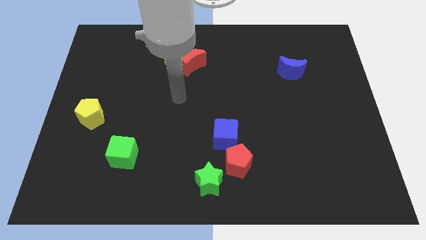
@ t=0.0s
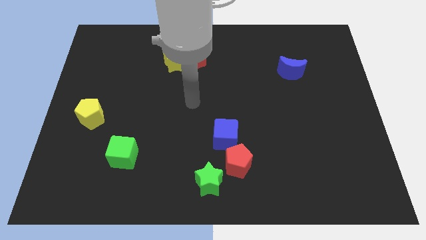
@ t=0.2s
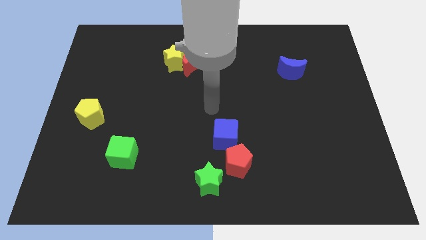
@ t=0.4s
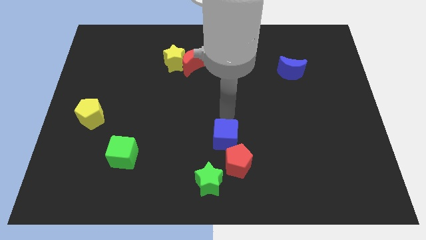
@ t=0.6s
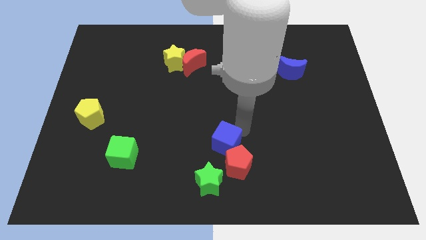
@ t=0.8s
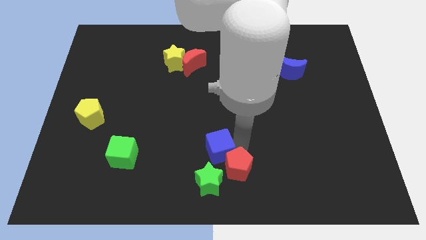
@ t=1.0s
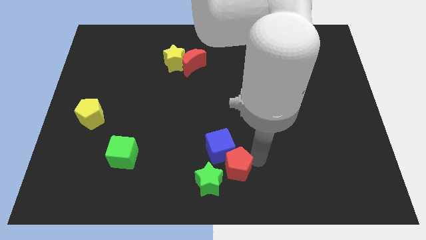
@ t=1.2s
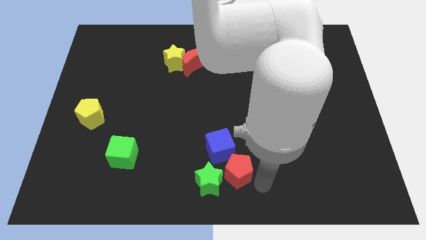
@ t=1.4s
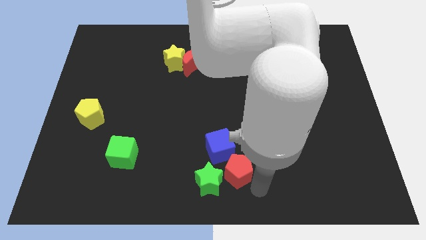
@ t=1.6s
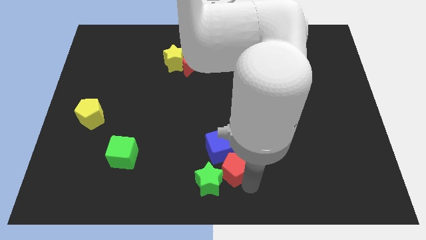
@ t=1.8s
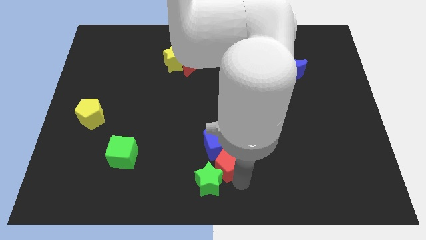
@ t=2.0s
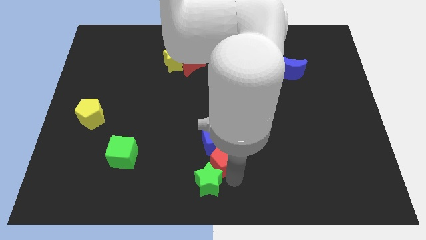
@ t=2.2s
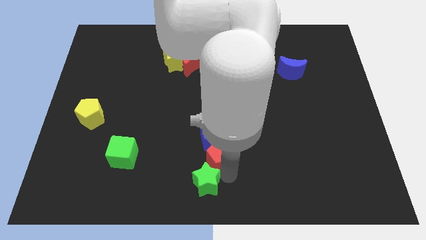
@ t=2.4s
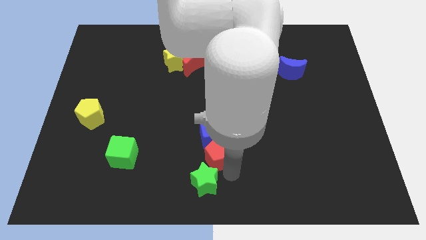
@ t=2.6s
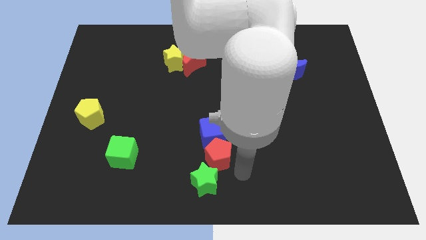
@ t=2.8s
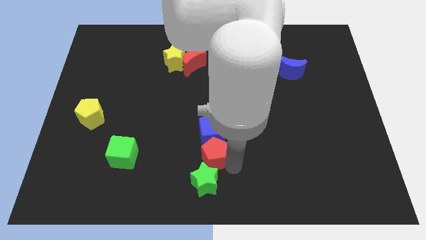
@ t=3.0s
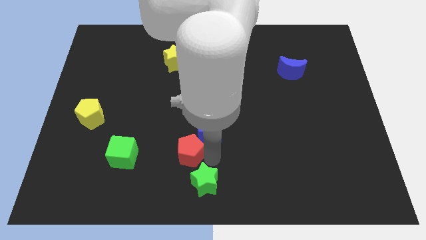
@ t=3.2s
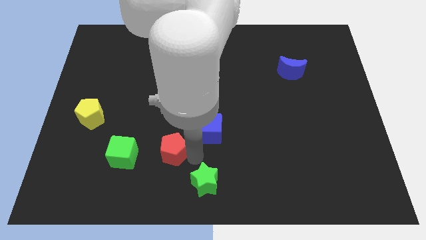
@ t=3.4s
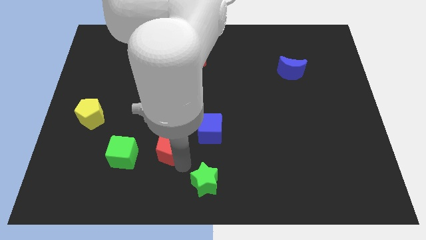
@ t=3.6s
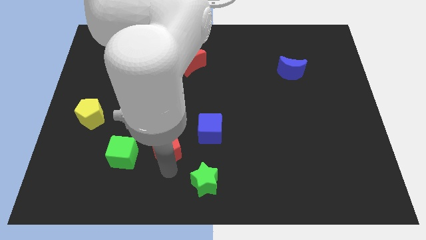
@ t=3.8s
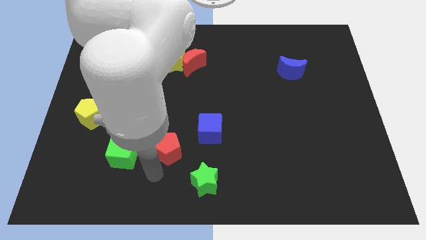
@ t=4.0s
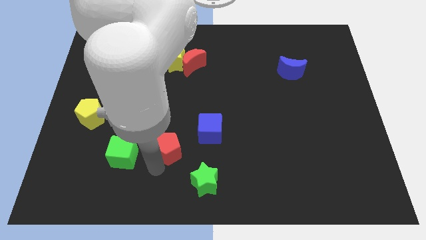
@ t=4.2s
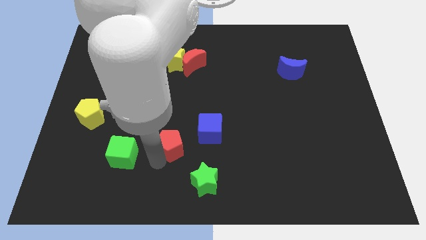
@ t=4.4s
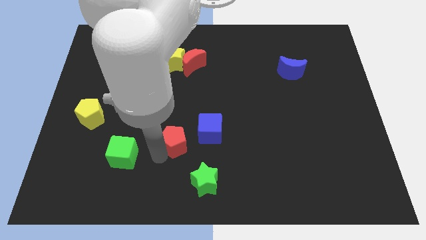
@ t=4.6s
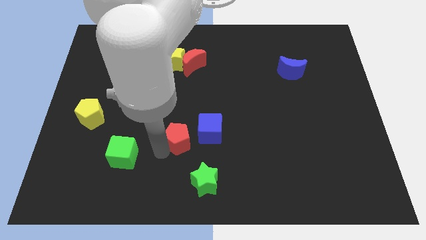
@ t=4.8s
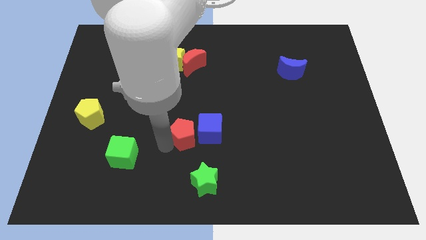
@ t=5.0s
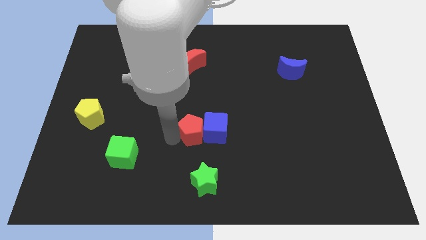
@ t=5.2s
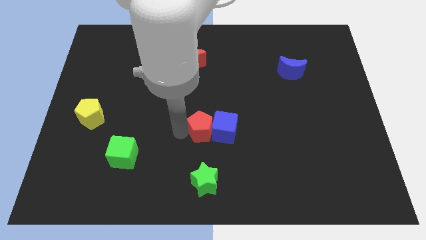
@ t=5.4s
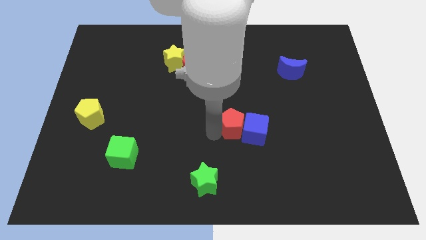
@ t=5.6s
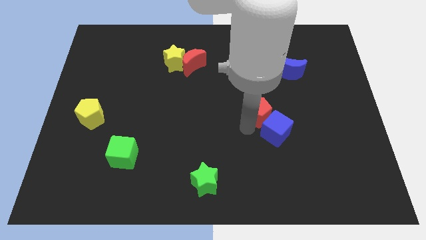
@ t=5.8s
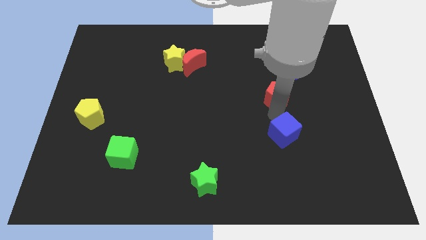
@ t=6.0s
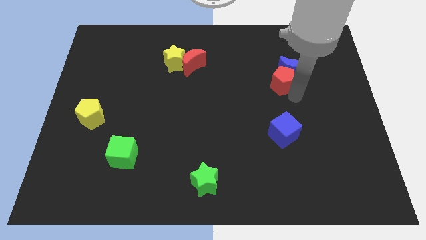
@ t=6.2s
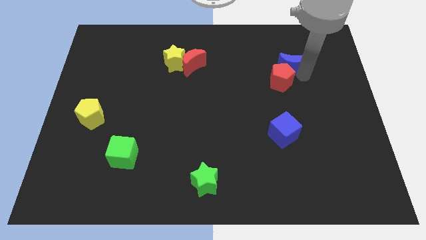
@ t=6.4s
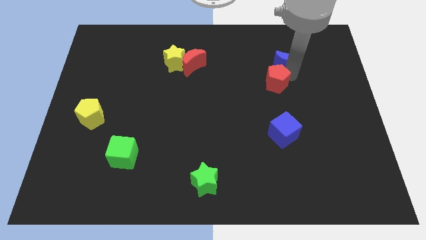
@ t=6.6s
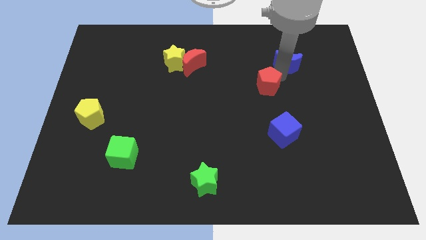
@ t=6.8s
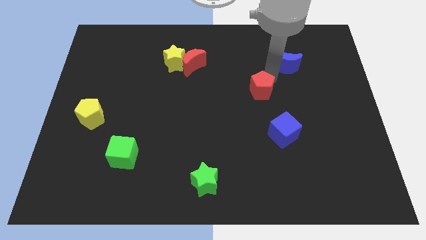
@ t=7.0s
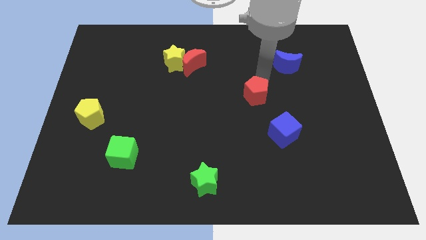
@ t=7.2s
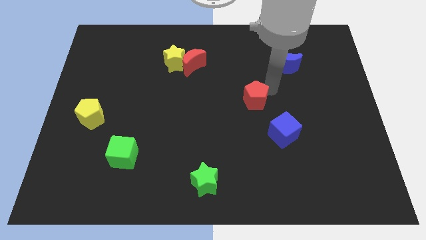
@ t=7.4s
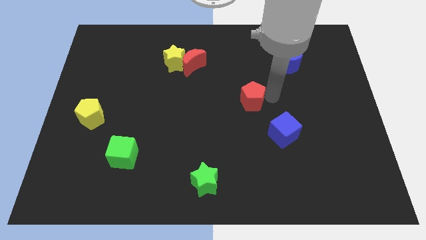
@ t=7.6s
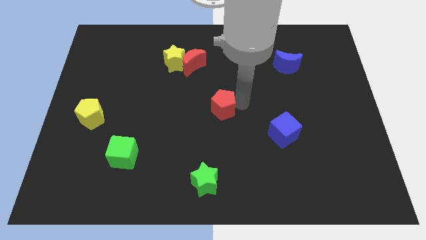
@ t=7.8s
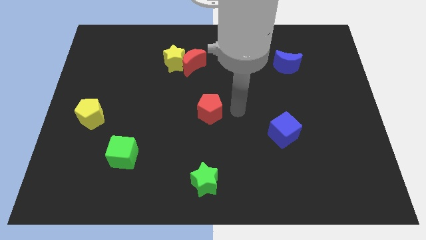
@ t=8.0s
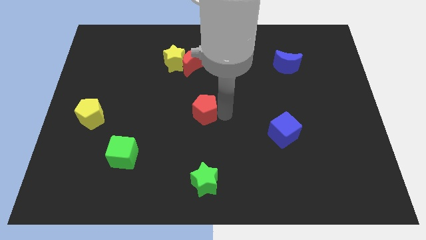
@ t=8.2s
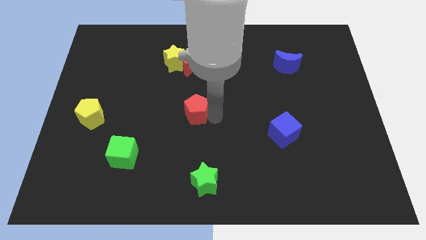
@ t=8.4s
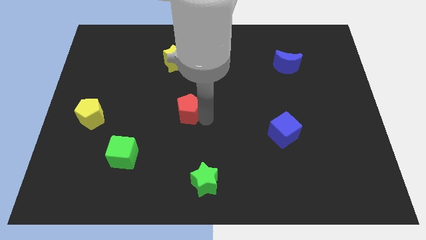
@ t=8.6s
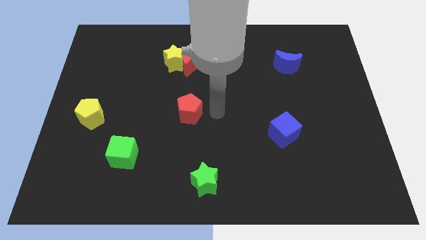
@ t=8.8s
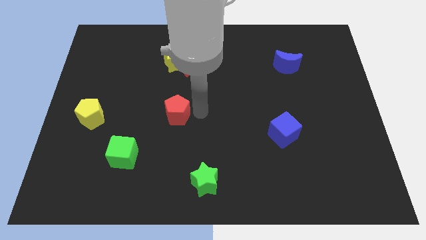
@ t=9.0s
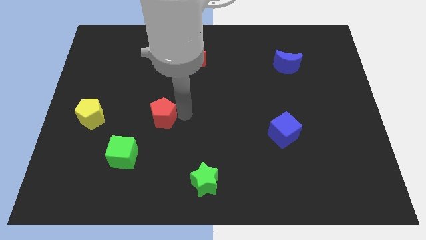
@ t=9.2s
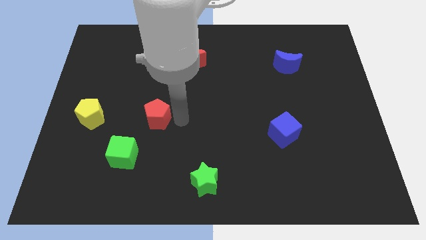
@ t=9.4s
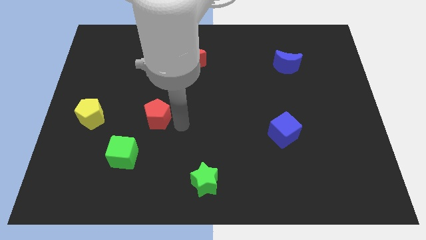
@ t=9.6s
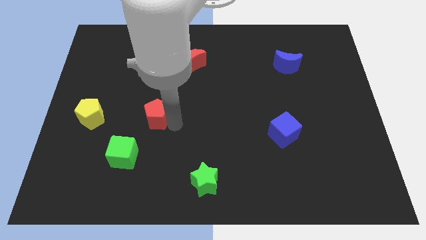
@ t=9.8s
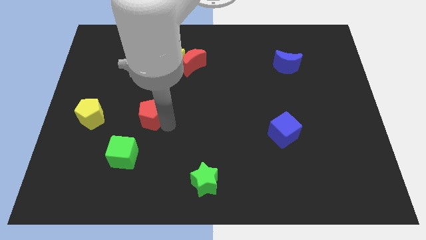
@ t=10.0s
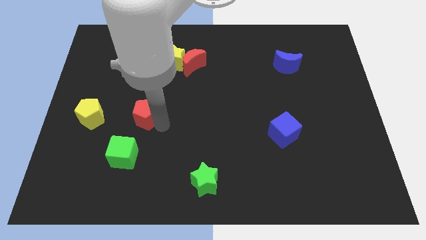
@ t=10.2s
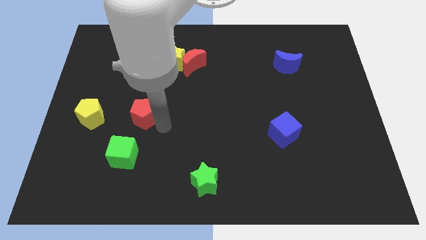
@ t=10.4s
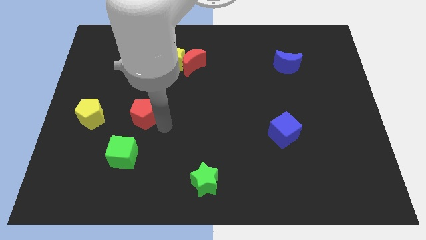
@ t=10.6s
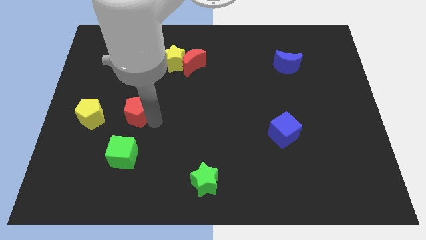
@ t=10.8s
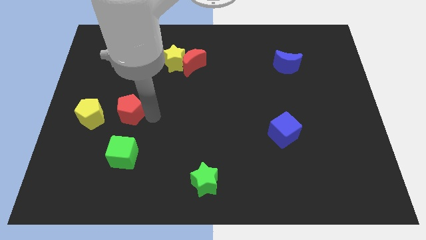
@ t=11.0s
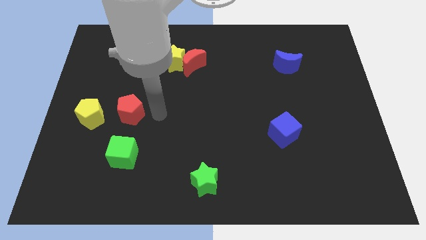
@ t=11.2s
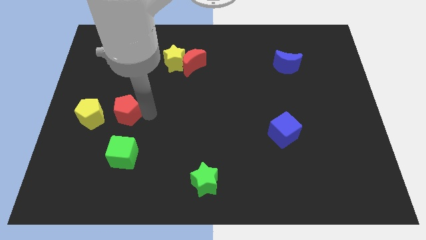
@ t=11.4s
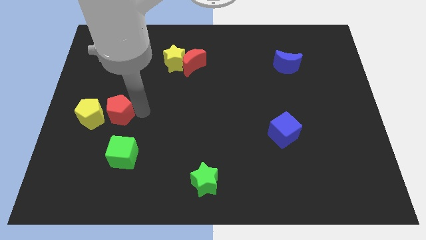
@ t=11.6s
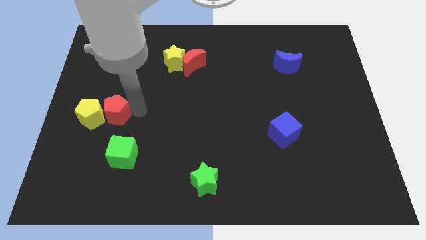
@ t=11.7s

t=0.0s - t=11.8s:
push the red pentagon next to the yellow pentagon

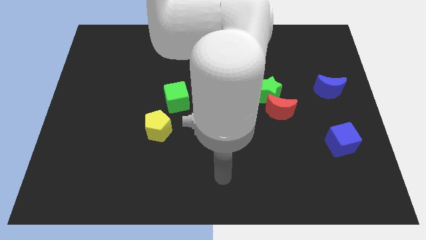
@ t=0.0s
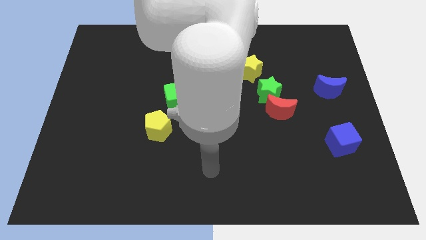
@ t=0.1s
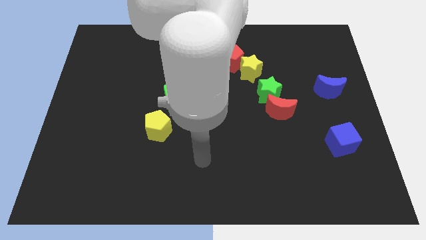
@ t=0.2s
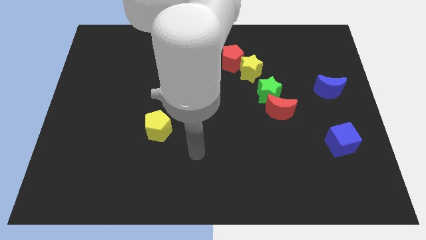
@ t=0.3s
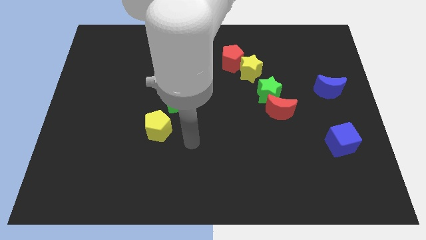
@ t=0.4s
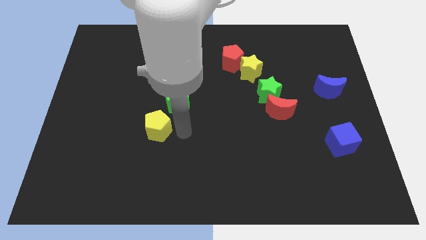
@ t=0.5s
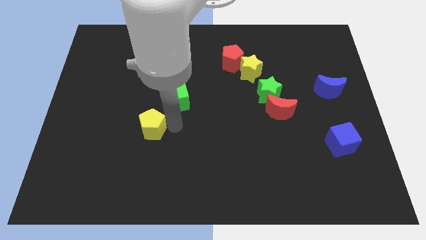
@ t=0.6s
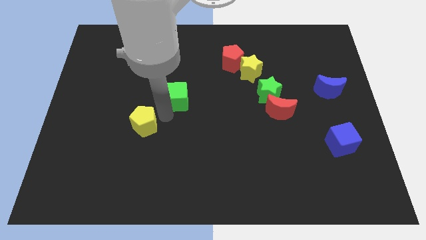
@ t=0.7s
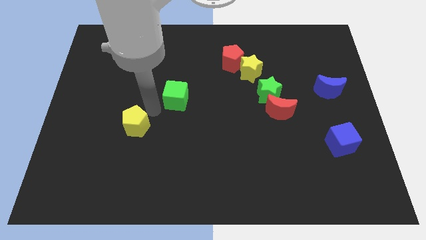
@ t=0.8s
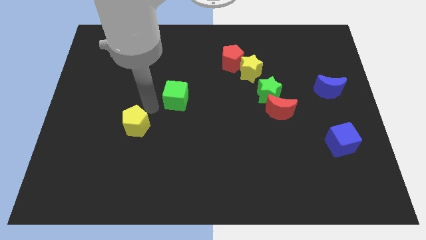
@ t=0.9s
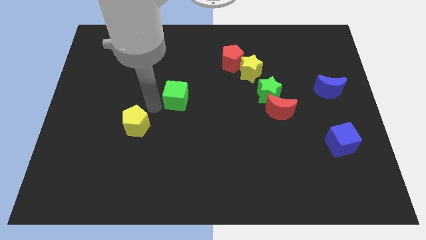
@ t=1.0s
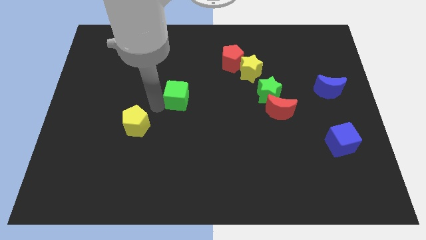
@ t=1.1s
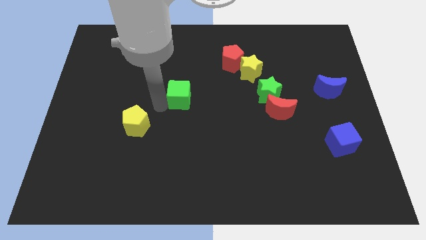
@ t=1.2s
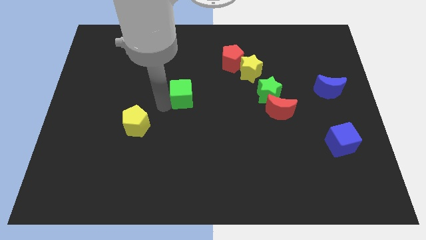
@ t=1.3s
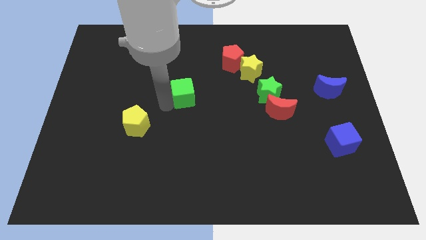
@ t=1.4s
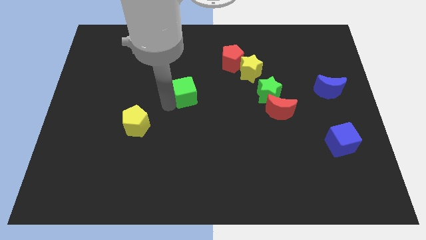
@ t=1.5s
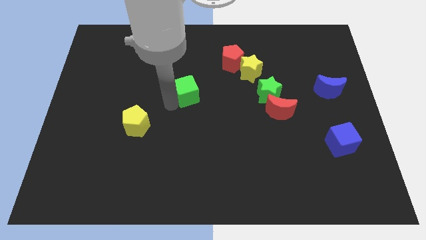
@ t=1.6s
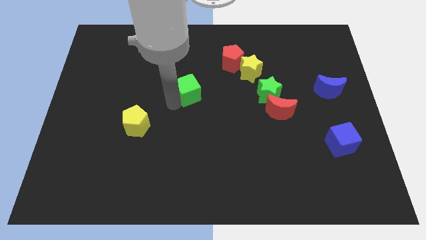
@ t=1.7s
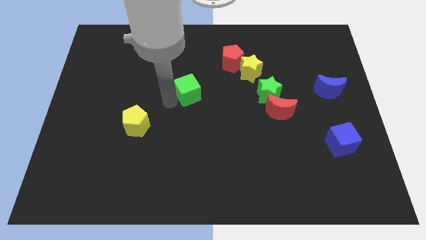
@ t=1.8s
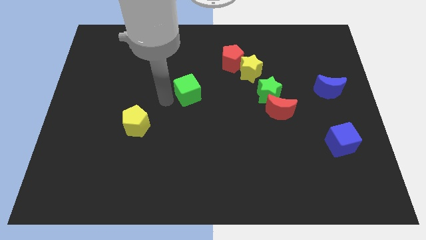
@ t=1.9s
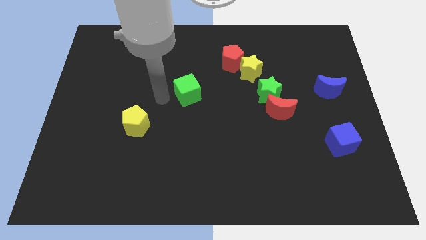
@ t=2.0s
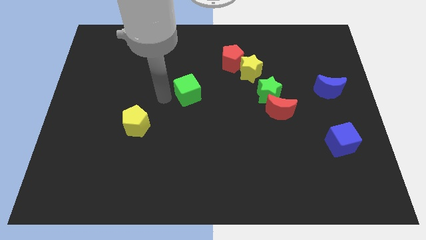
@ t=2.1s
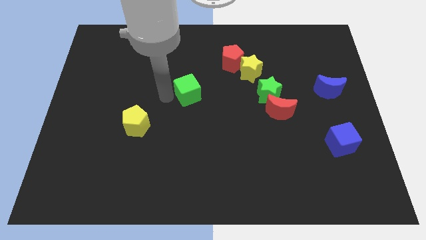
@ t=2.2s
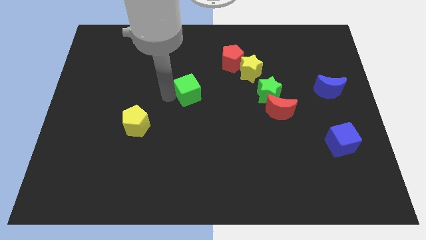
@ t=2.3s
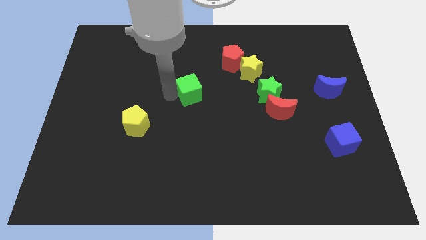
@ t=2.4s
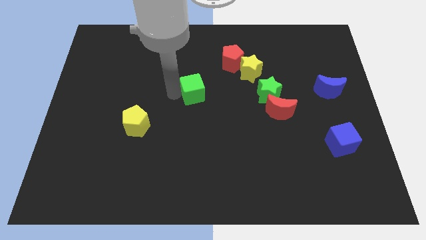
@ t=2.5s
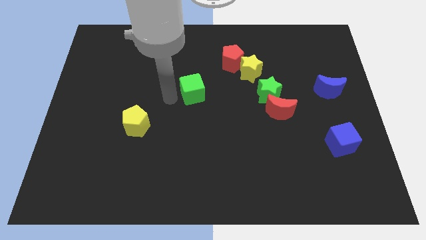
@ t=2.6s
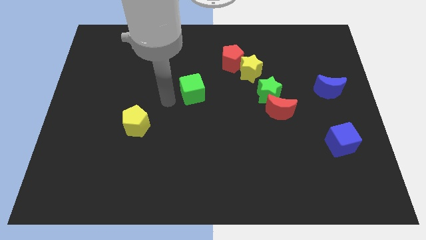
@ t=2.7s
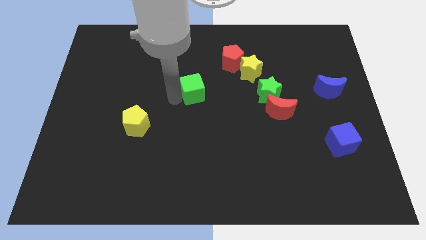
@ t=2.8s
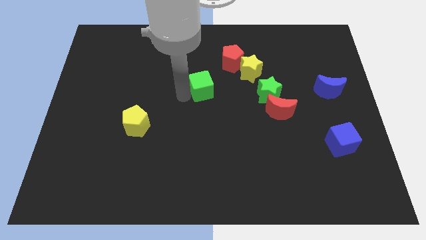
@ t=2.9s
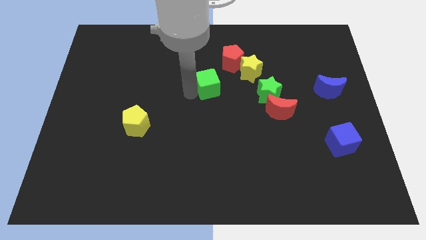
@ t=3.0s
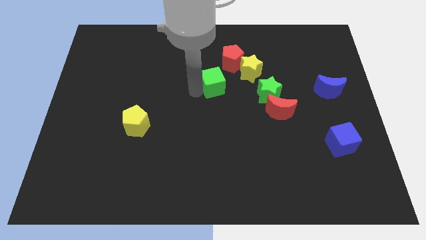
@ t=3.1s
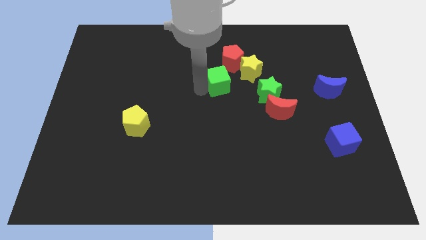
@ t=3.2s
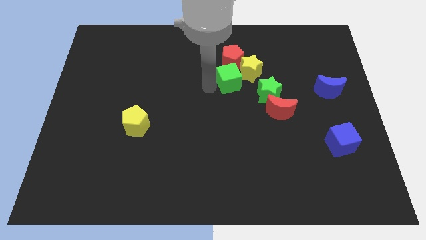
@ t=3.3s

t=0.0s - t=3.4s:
move the green cube next to the yellow star
